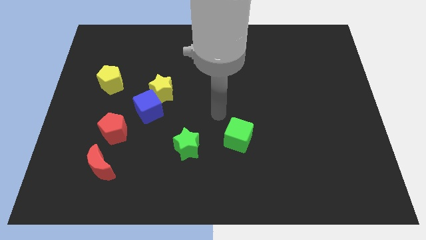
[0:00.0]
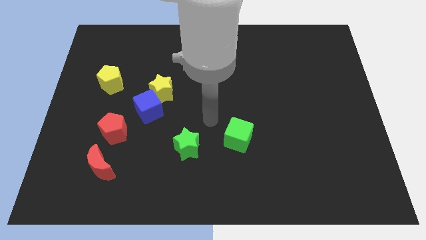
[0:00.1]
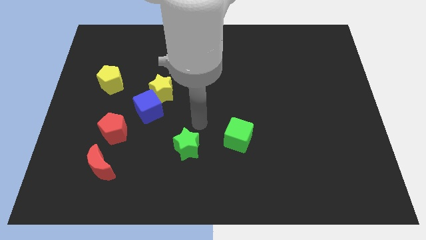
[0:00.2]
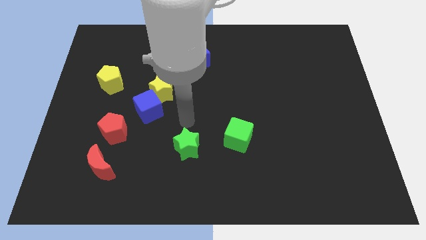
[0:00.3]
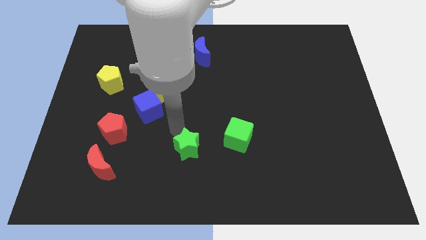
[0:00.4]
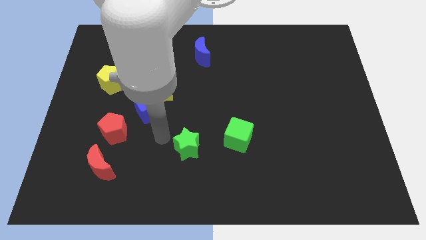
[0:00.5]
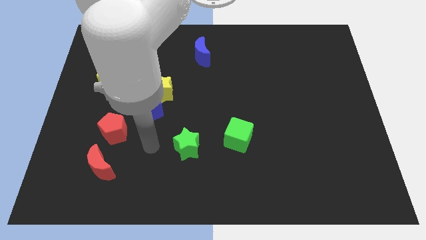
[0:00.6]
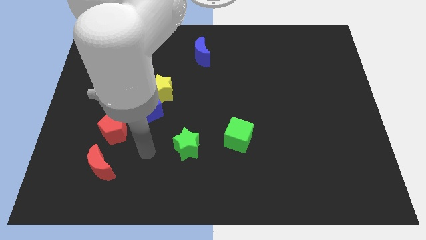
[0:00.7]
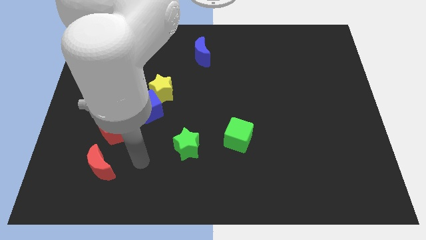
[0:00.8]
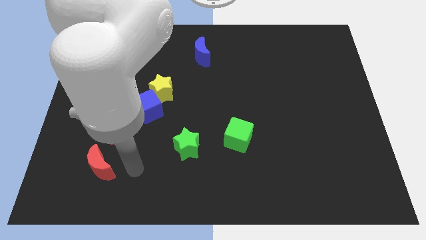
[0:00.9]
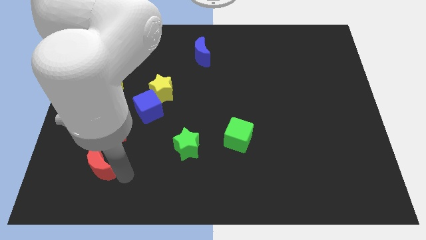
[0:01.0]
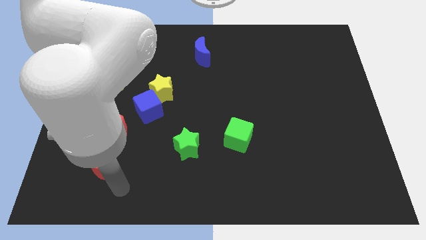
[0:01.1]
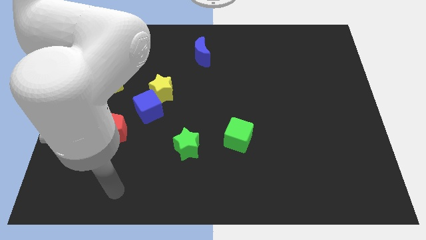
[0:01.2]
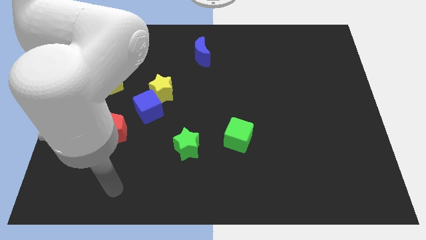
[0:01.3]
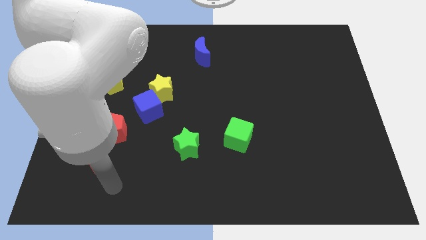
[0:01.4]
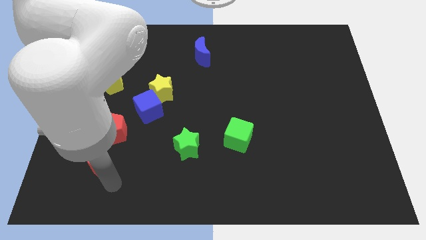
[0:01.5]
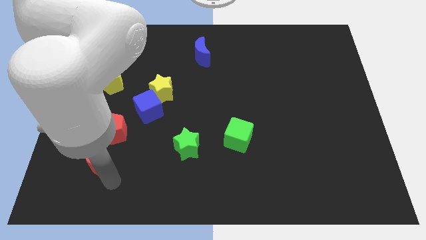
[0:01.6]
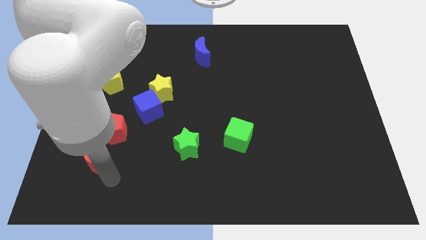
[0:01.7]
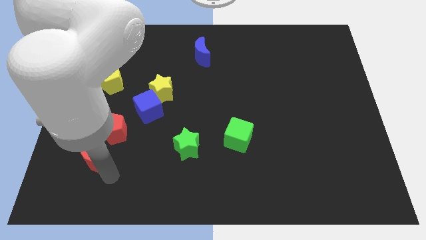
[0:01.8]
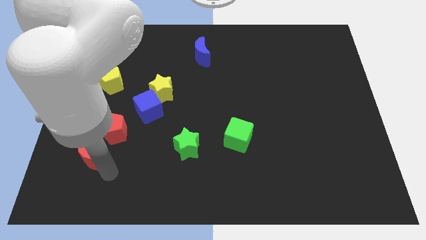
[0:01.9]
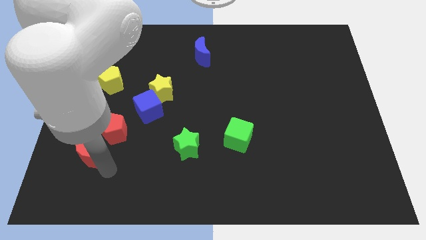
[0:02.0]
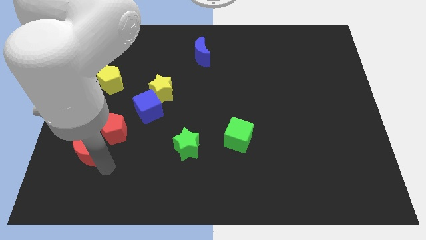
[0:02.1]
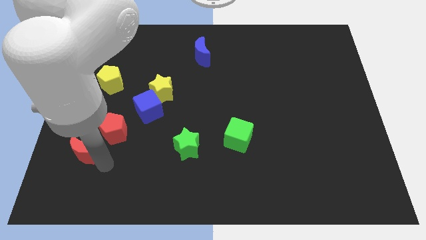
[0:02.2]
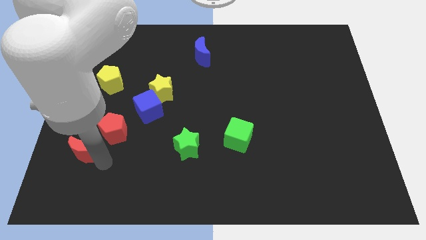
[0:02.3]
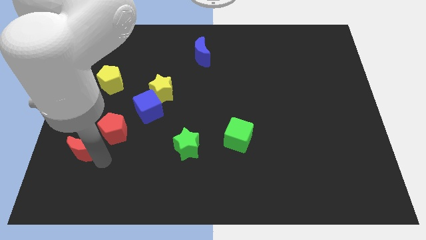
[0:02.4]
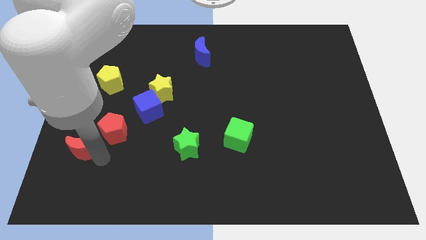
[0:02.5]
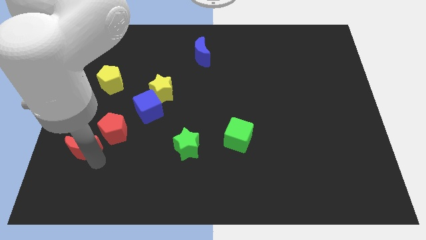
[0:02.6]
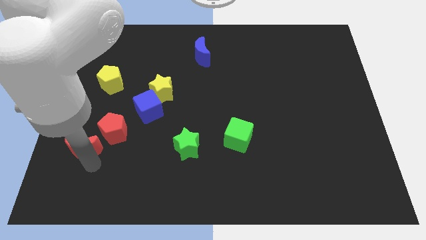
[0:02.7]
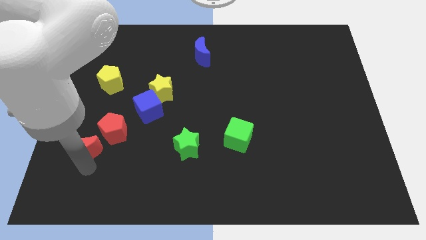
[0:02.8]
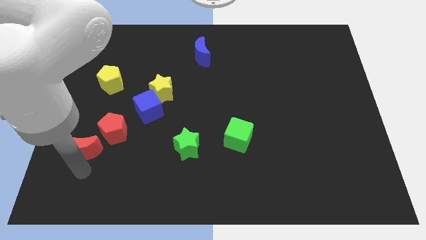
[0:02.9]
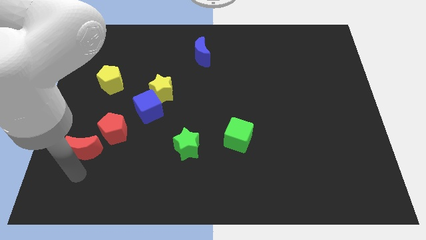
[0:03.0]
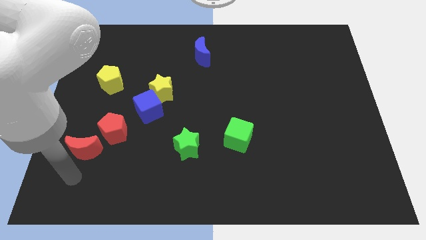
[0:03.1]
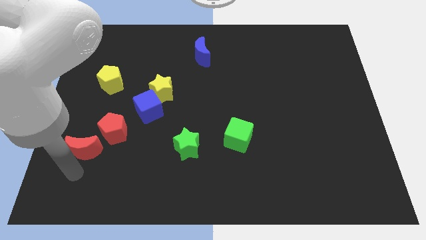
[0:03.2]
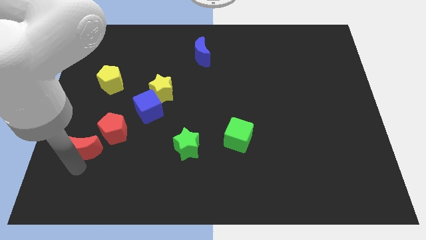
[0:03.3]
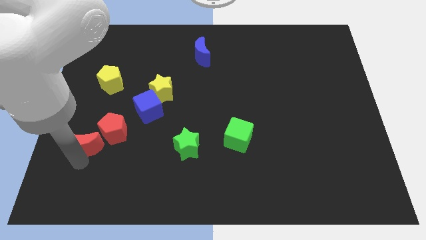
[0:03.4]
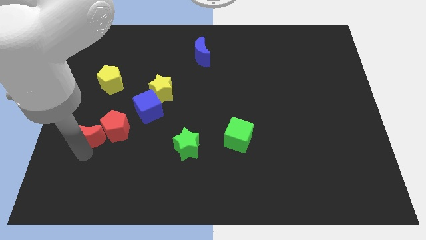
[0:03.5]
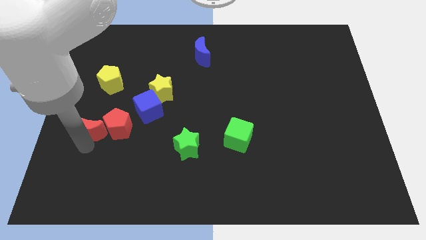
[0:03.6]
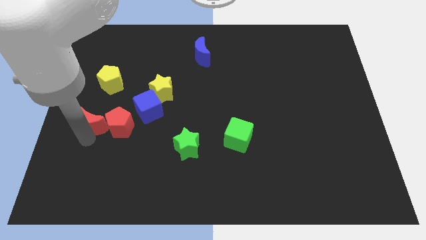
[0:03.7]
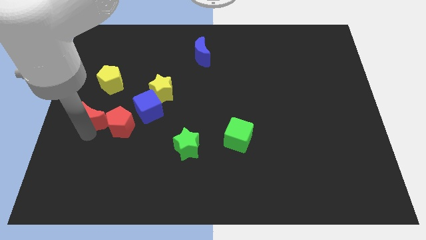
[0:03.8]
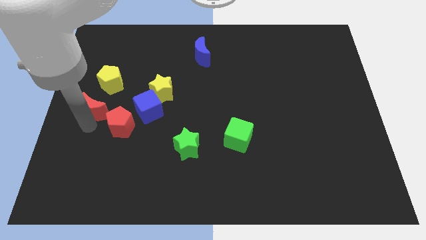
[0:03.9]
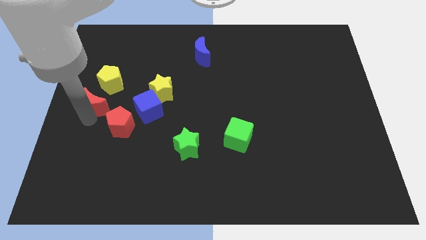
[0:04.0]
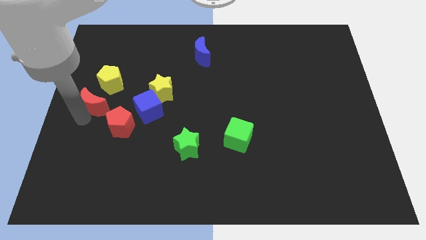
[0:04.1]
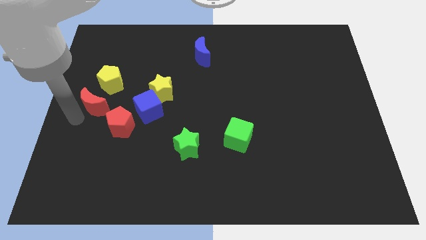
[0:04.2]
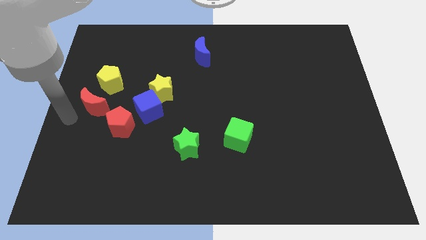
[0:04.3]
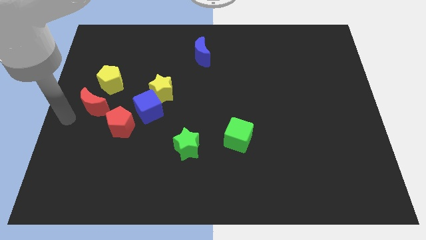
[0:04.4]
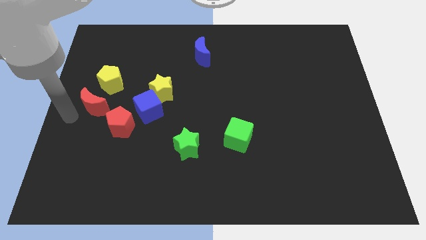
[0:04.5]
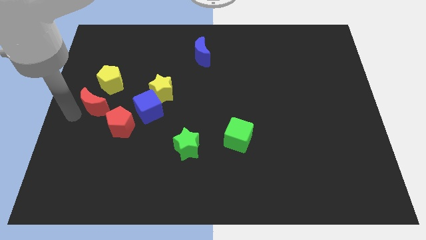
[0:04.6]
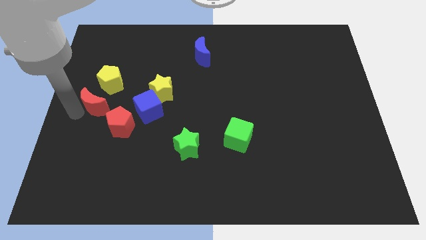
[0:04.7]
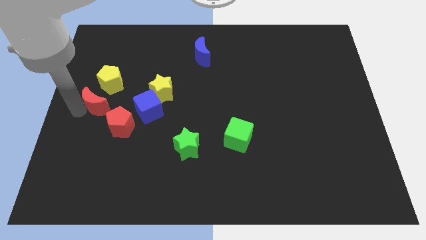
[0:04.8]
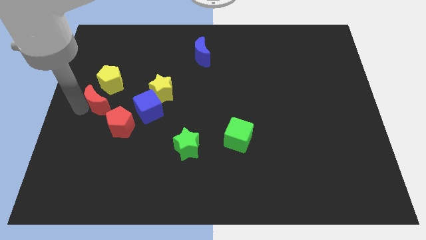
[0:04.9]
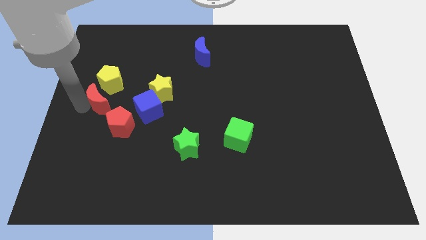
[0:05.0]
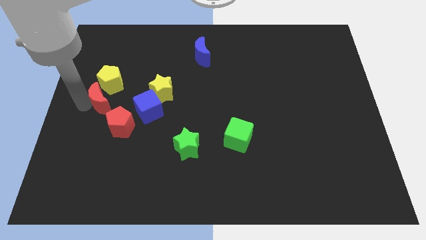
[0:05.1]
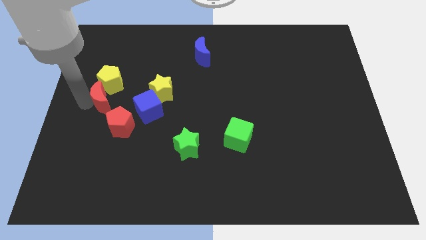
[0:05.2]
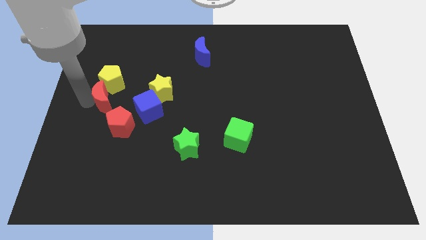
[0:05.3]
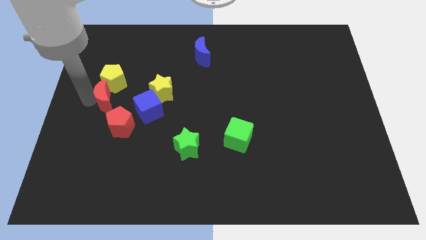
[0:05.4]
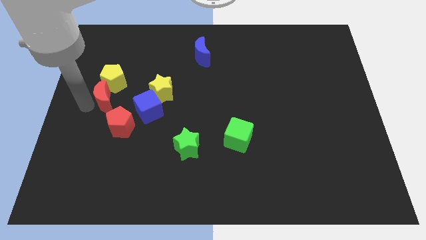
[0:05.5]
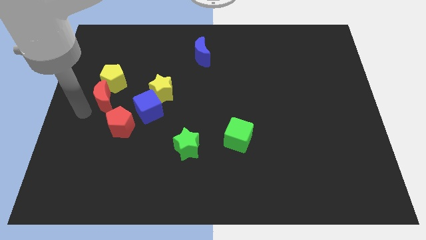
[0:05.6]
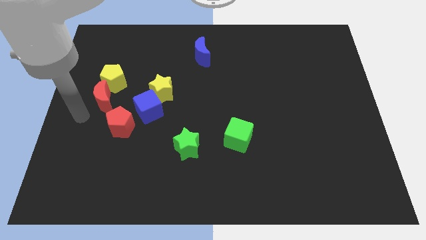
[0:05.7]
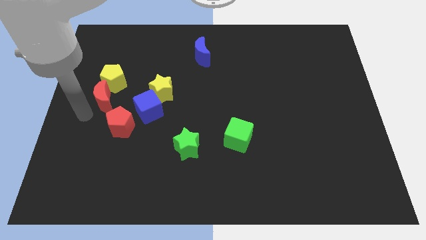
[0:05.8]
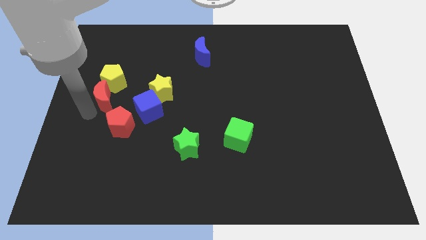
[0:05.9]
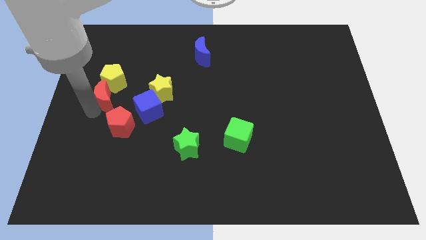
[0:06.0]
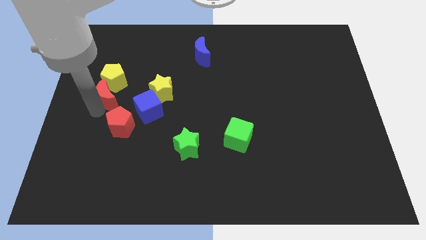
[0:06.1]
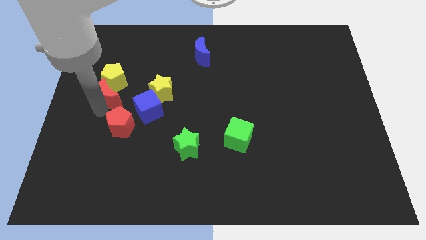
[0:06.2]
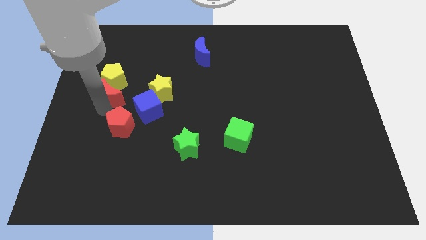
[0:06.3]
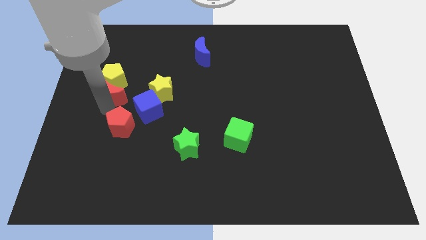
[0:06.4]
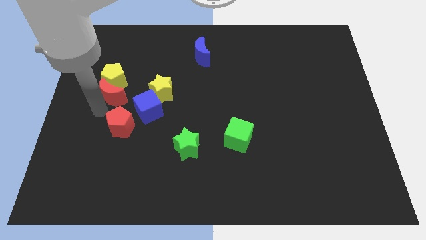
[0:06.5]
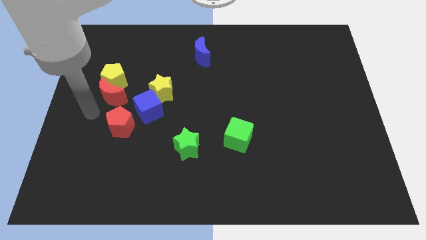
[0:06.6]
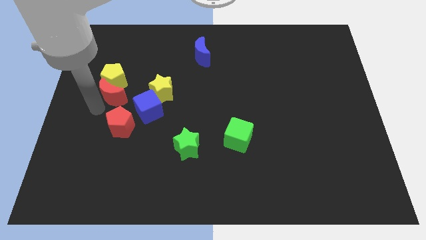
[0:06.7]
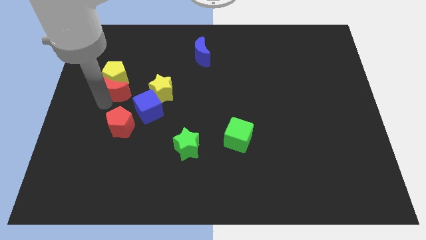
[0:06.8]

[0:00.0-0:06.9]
move the red moon upwards

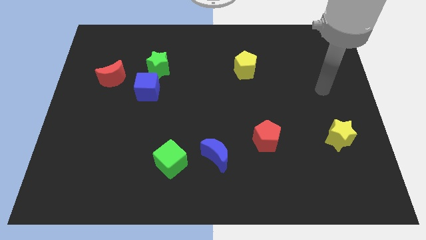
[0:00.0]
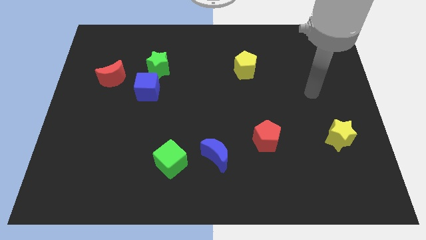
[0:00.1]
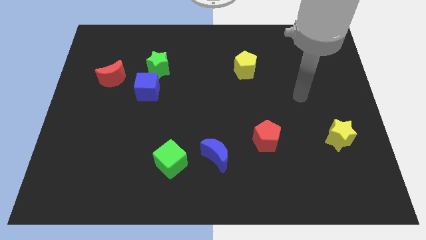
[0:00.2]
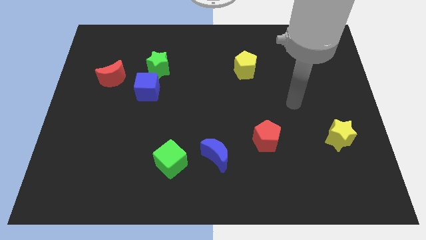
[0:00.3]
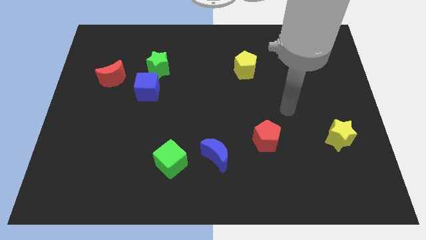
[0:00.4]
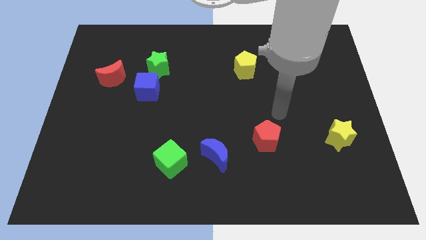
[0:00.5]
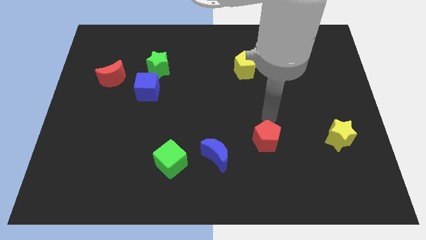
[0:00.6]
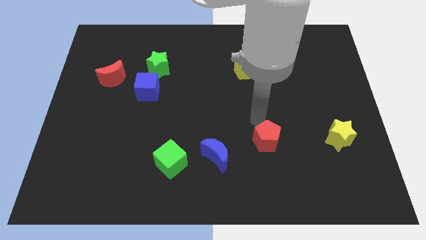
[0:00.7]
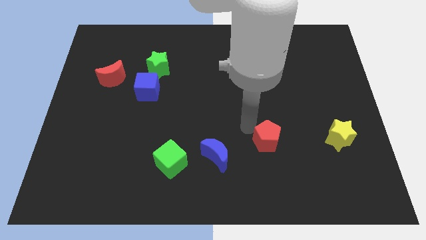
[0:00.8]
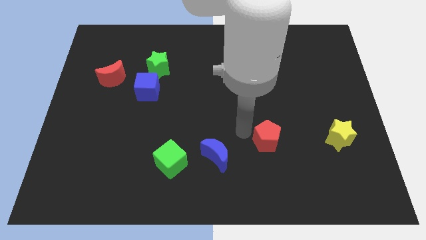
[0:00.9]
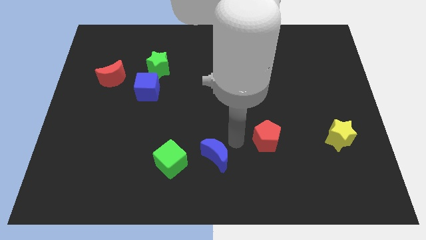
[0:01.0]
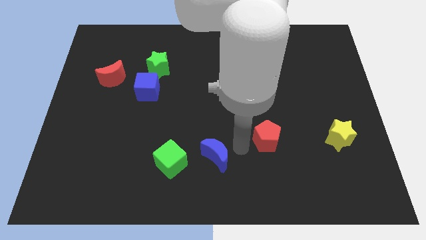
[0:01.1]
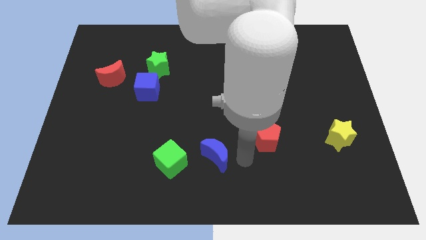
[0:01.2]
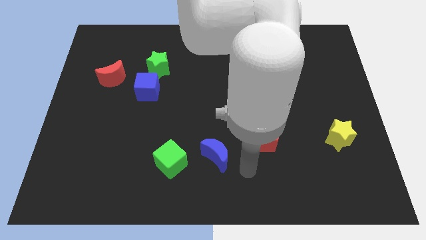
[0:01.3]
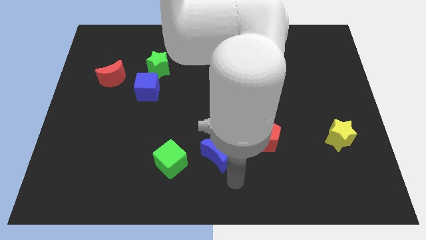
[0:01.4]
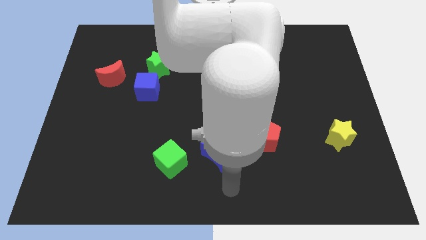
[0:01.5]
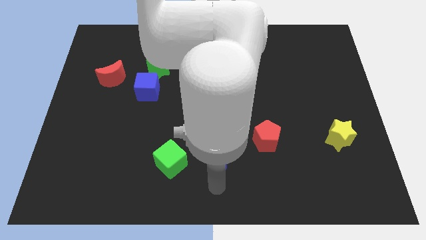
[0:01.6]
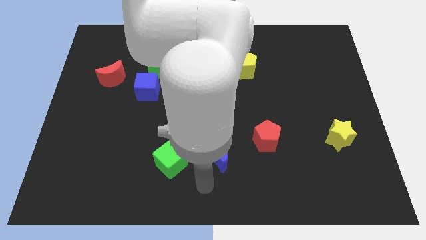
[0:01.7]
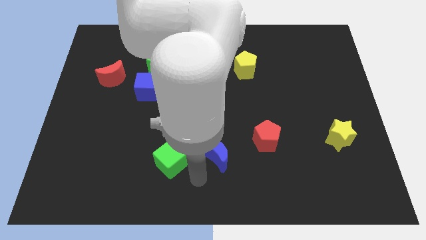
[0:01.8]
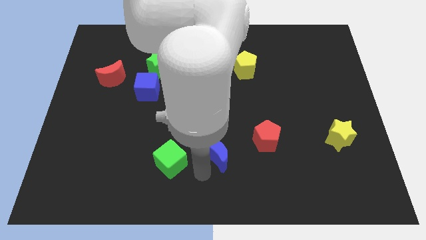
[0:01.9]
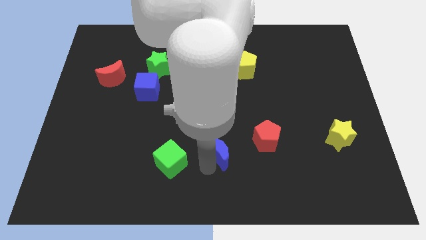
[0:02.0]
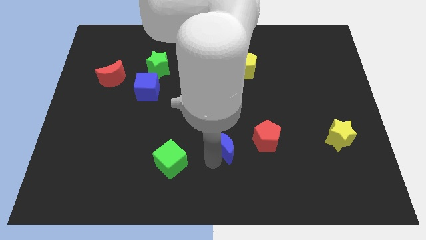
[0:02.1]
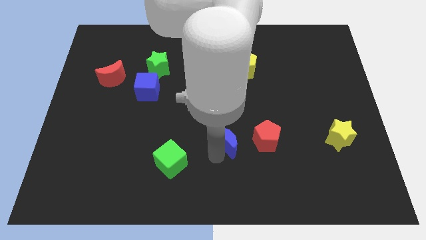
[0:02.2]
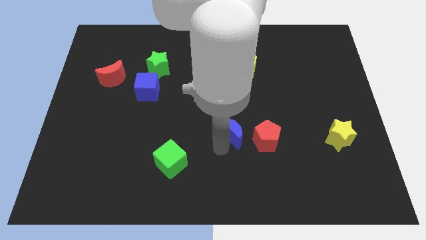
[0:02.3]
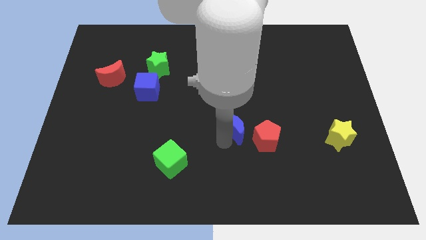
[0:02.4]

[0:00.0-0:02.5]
move the blue moon a little upwards and then to the right
